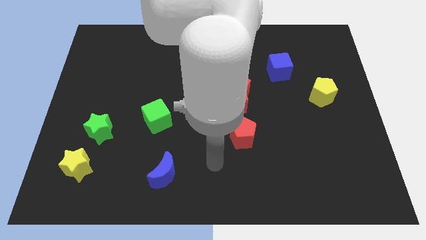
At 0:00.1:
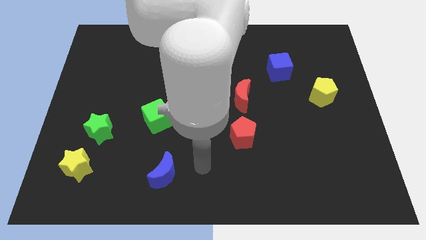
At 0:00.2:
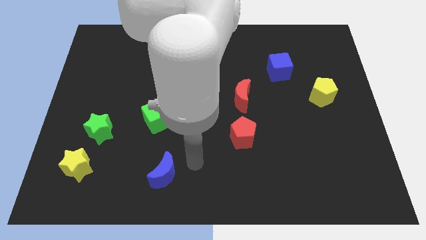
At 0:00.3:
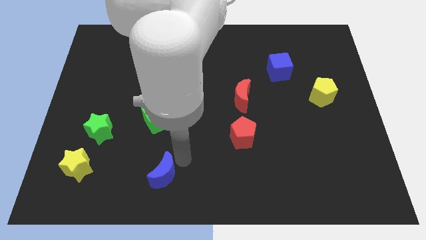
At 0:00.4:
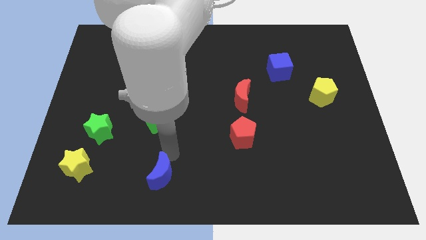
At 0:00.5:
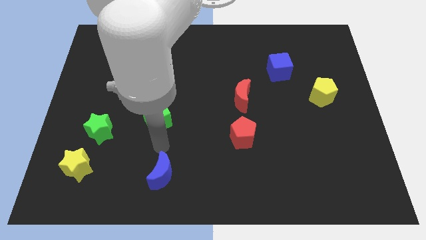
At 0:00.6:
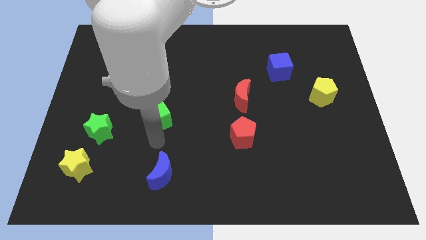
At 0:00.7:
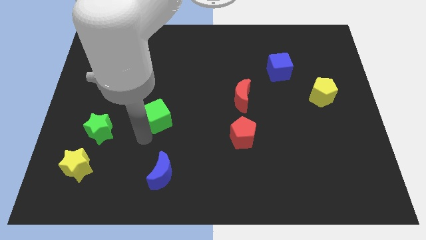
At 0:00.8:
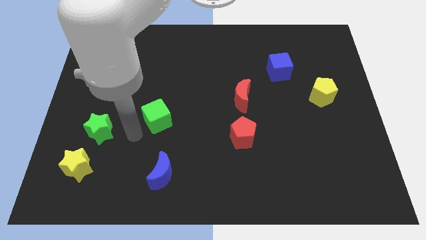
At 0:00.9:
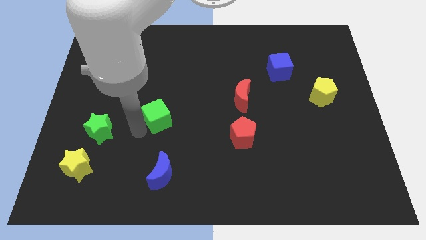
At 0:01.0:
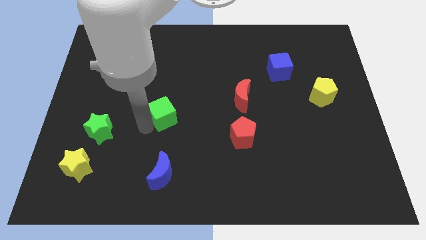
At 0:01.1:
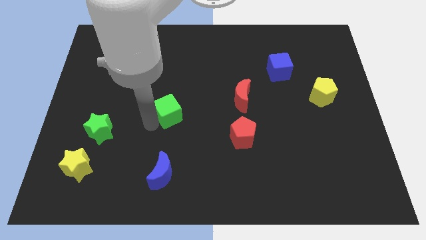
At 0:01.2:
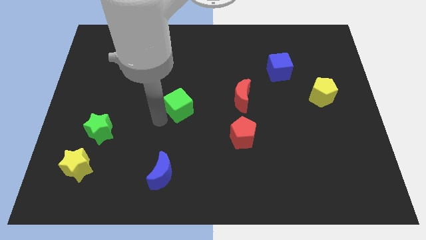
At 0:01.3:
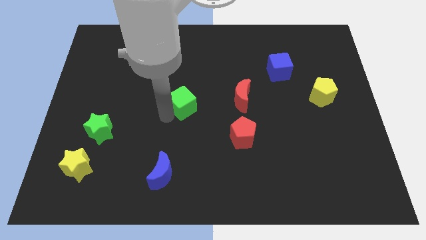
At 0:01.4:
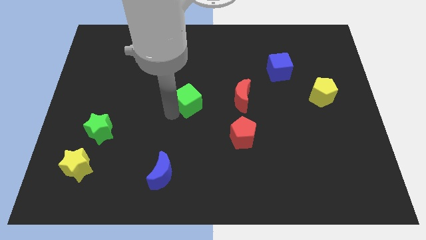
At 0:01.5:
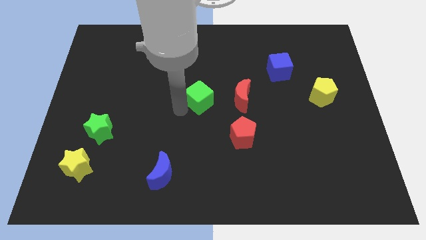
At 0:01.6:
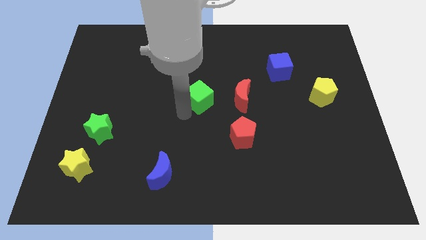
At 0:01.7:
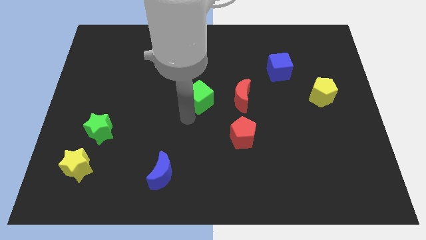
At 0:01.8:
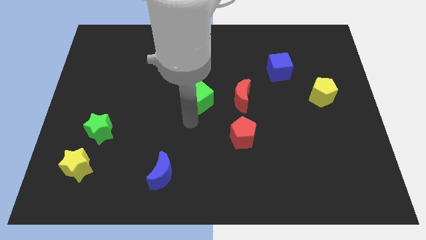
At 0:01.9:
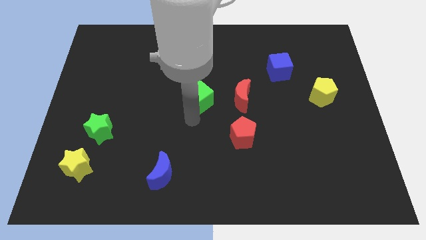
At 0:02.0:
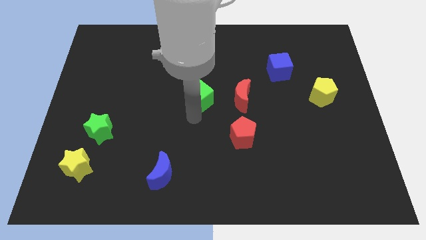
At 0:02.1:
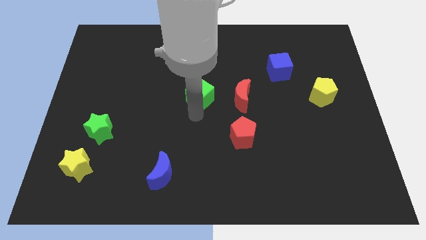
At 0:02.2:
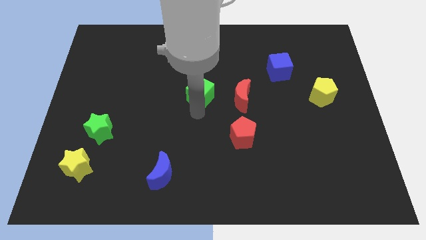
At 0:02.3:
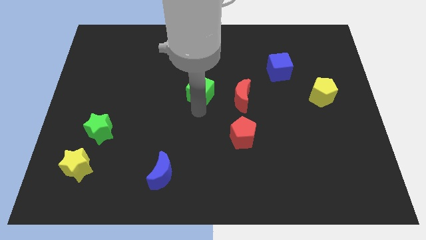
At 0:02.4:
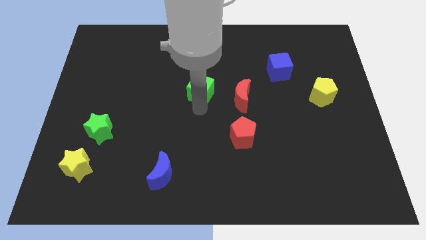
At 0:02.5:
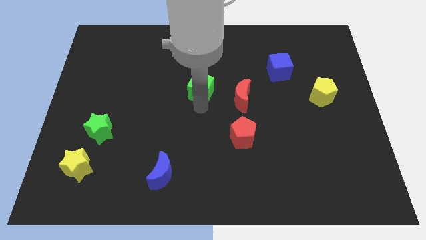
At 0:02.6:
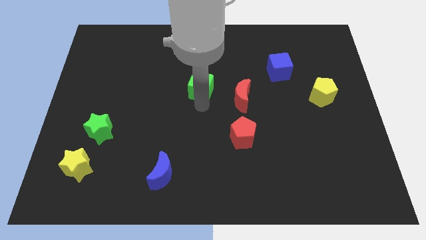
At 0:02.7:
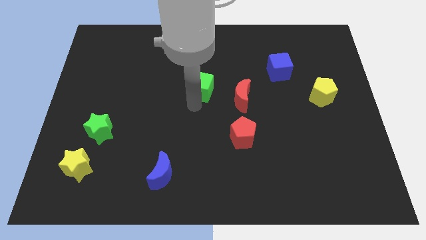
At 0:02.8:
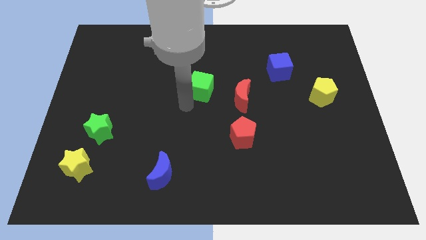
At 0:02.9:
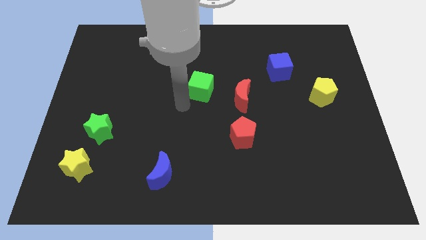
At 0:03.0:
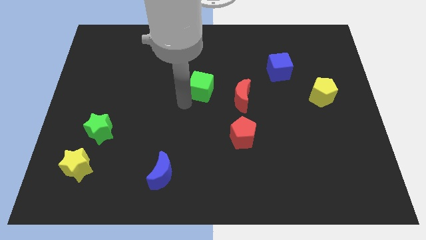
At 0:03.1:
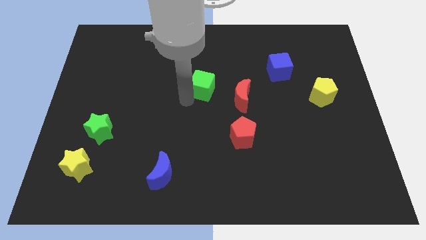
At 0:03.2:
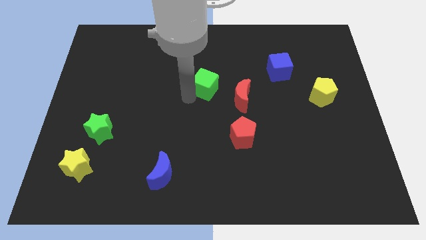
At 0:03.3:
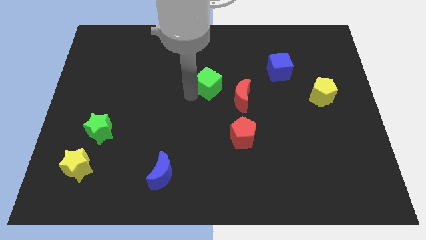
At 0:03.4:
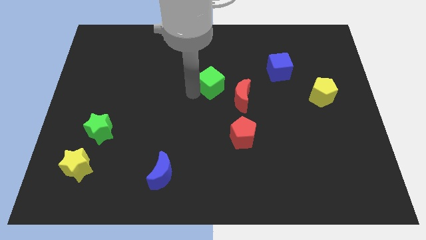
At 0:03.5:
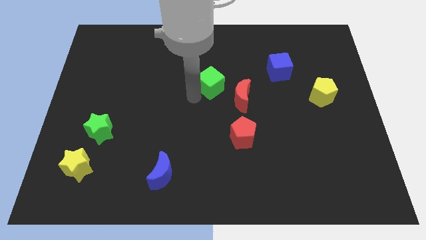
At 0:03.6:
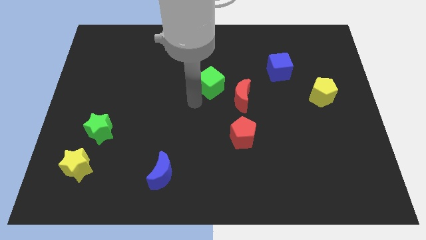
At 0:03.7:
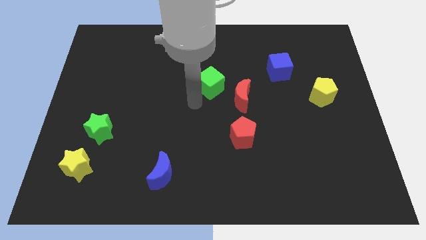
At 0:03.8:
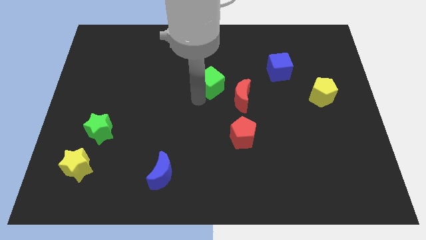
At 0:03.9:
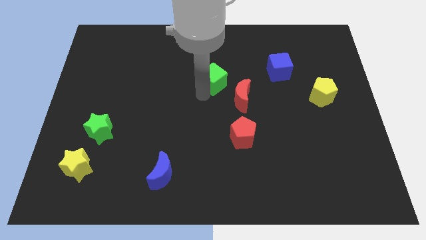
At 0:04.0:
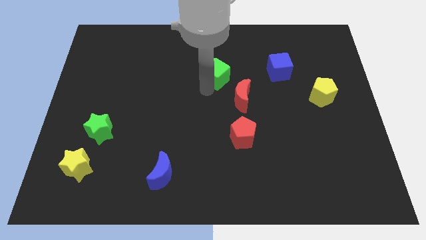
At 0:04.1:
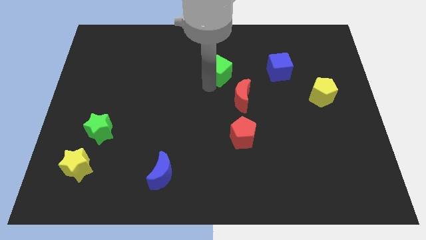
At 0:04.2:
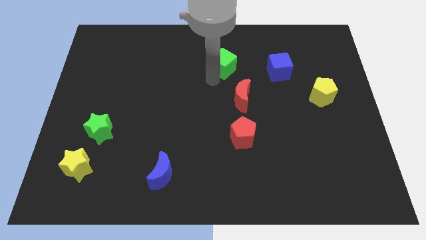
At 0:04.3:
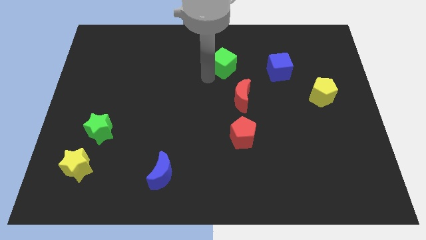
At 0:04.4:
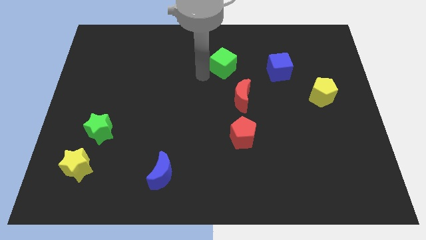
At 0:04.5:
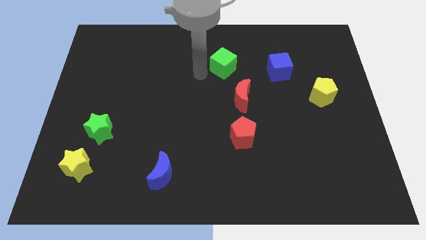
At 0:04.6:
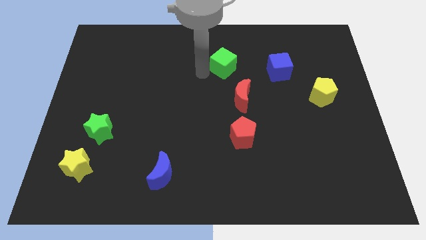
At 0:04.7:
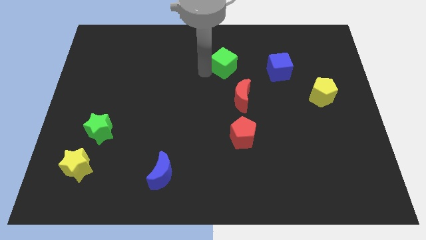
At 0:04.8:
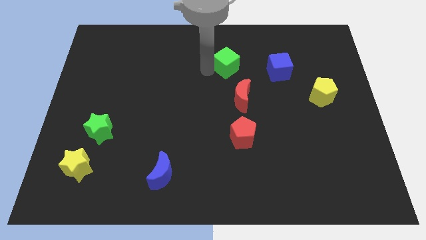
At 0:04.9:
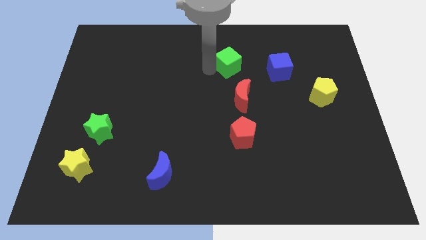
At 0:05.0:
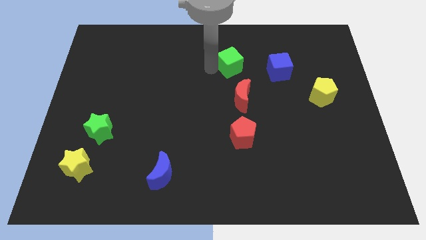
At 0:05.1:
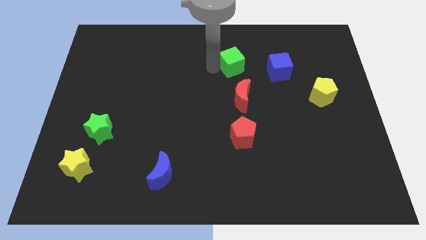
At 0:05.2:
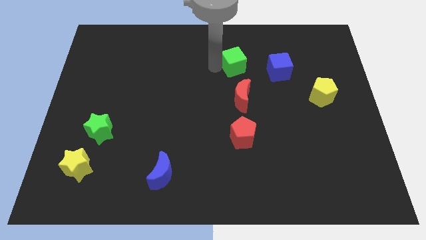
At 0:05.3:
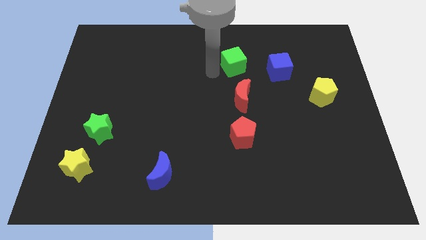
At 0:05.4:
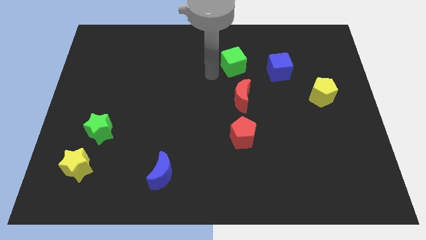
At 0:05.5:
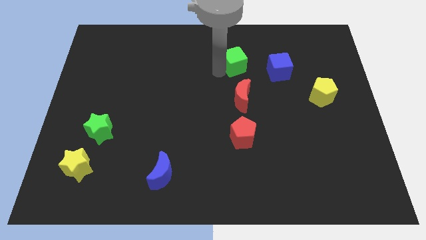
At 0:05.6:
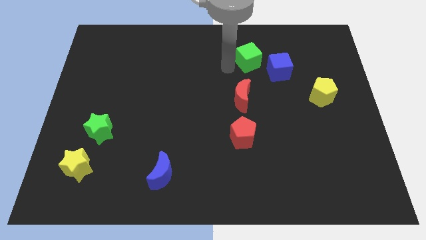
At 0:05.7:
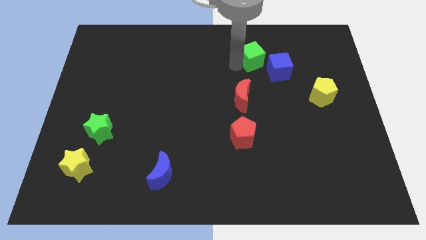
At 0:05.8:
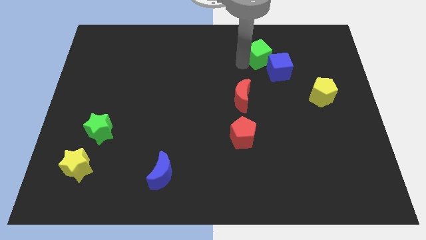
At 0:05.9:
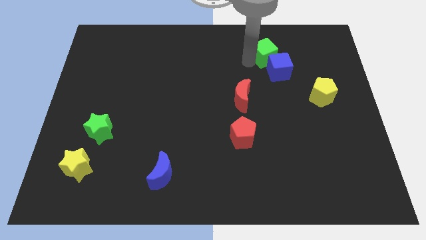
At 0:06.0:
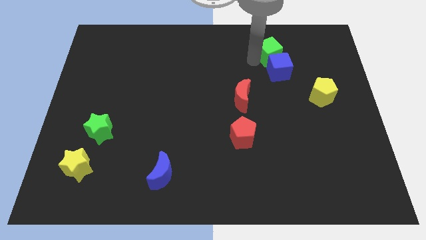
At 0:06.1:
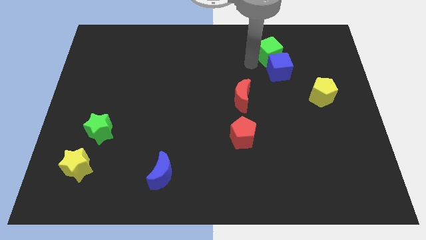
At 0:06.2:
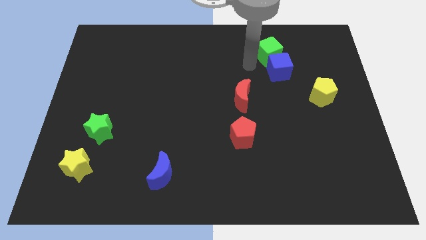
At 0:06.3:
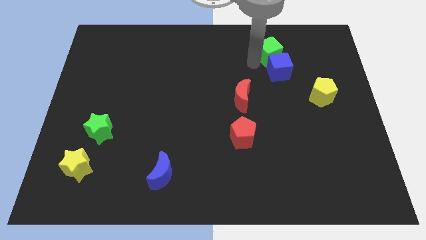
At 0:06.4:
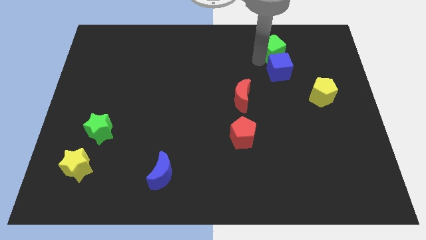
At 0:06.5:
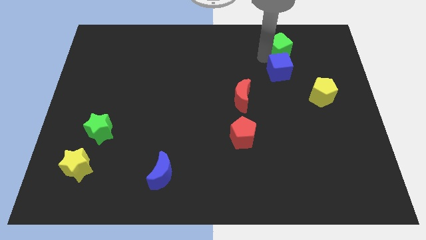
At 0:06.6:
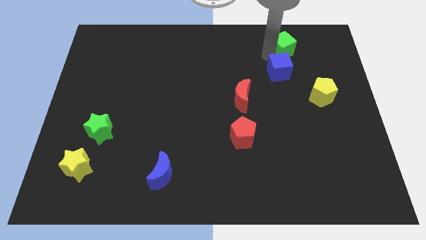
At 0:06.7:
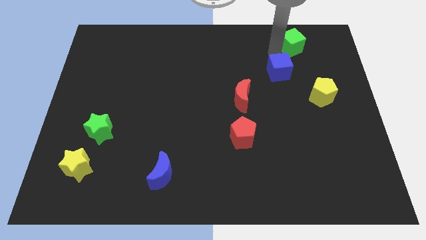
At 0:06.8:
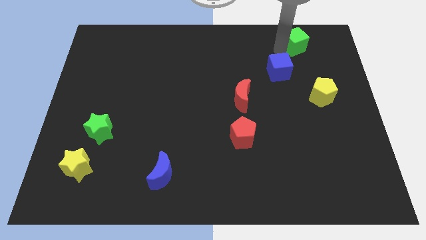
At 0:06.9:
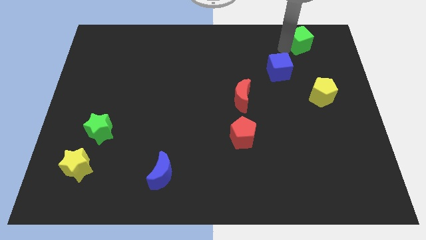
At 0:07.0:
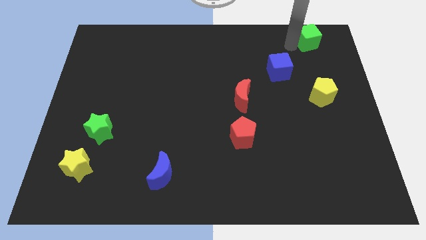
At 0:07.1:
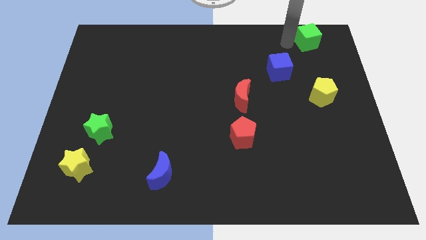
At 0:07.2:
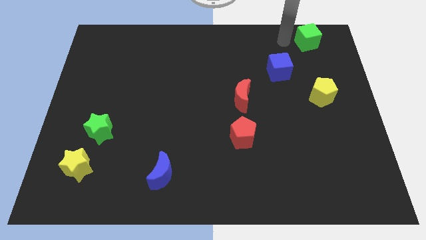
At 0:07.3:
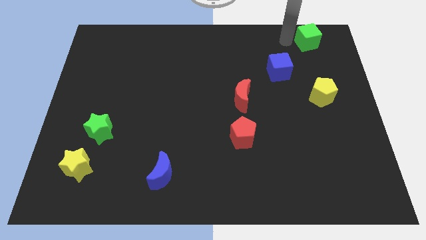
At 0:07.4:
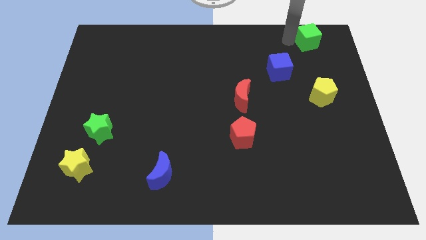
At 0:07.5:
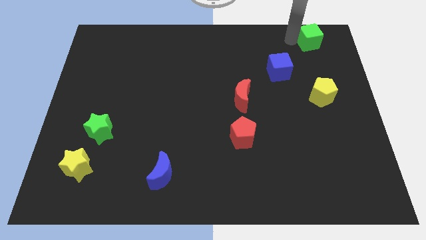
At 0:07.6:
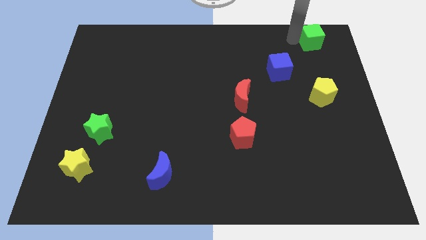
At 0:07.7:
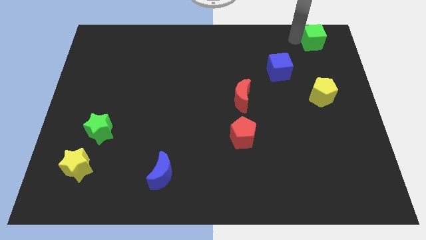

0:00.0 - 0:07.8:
put the green cube to the top right of the board
